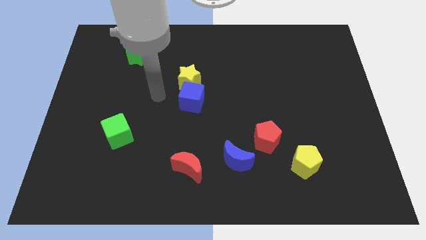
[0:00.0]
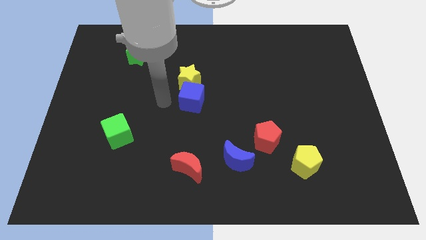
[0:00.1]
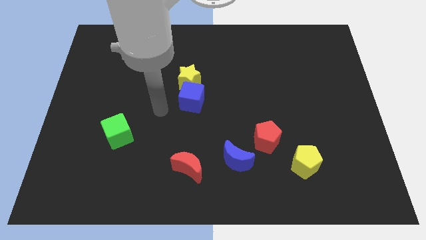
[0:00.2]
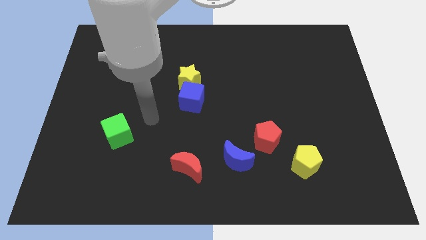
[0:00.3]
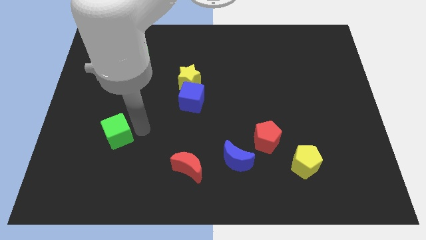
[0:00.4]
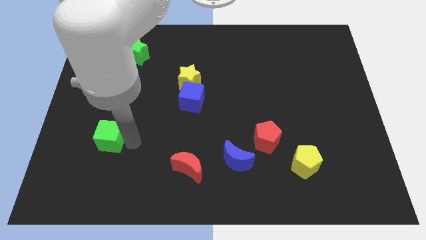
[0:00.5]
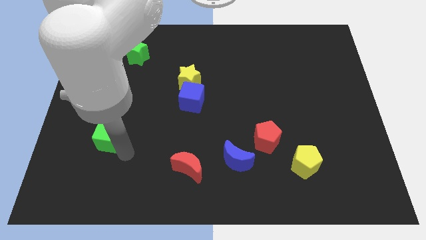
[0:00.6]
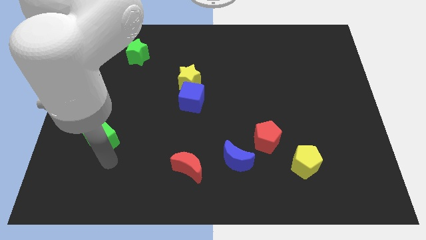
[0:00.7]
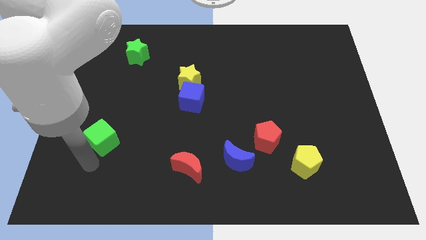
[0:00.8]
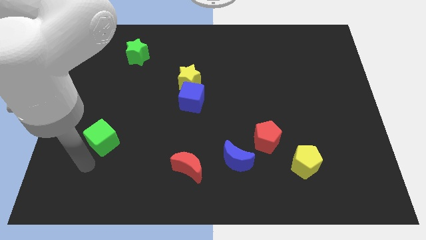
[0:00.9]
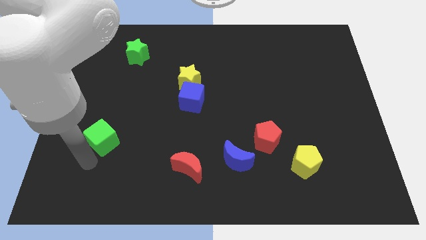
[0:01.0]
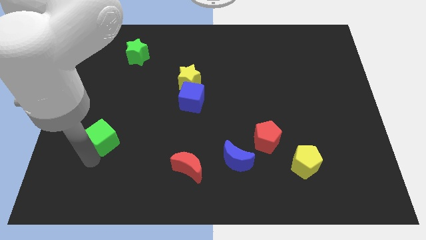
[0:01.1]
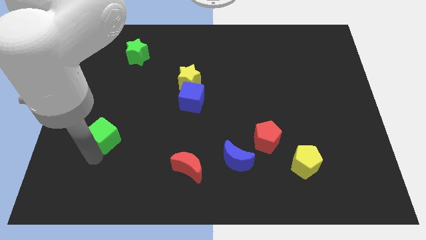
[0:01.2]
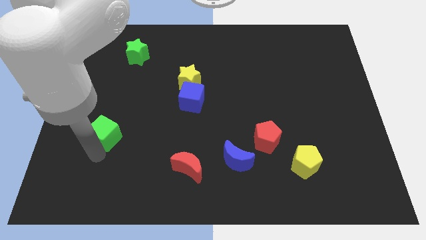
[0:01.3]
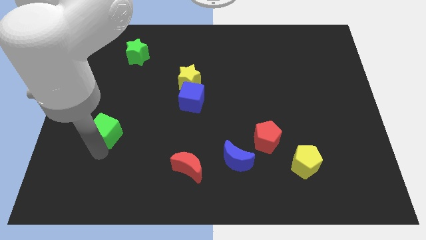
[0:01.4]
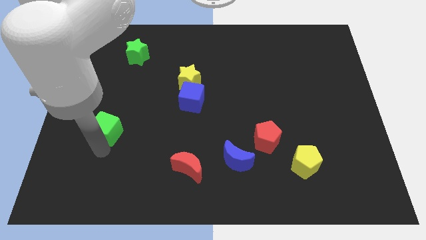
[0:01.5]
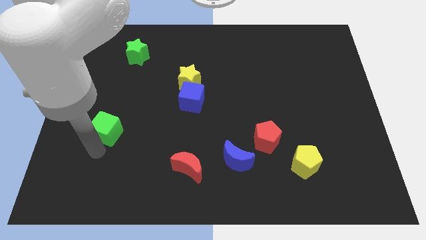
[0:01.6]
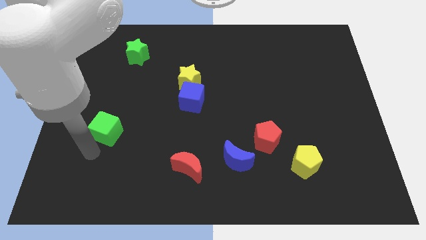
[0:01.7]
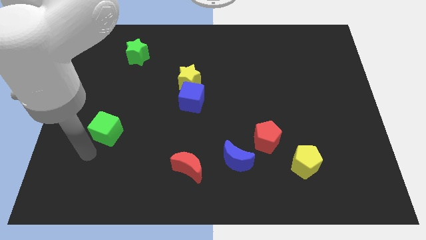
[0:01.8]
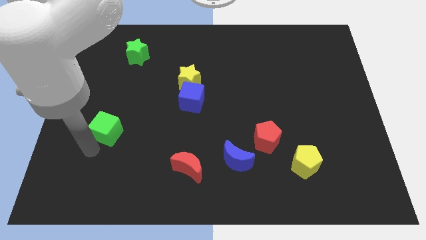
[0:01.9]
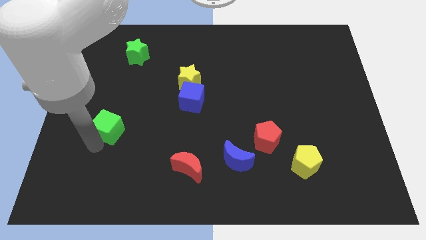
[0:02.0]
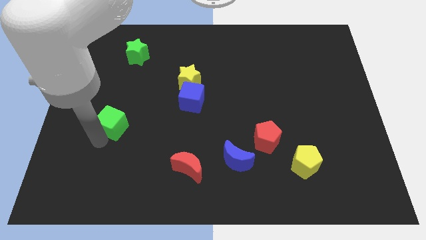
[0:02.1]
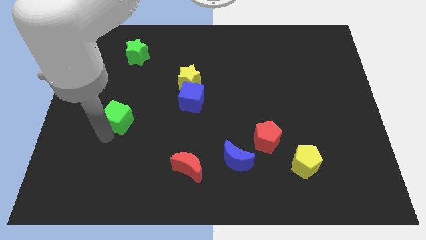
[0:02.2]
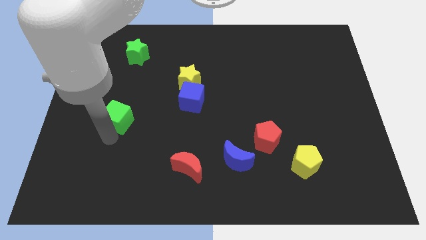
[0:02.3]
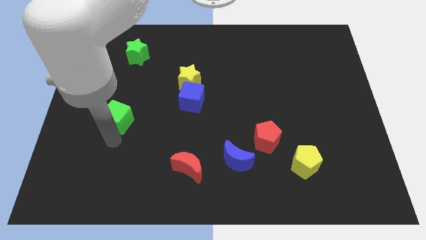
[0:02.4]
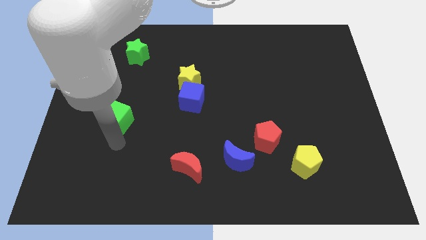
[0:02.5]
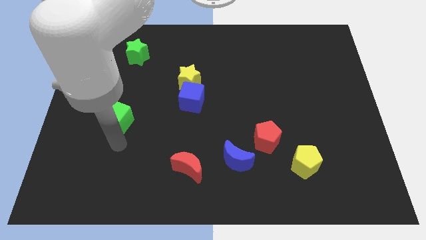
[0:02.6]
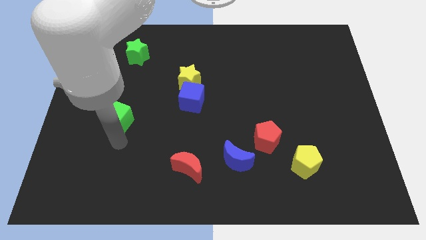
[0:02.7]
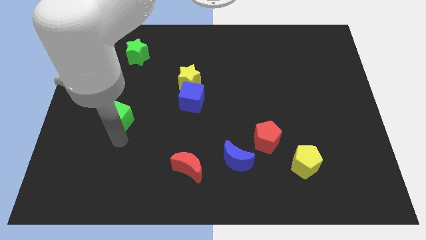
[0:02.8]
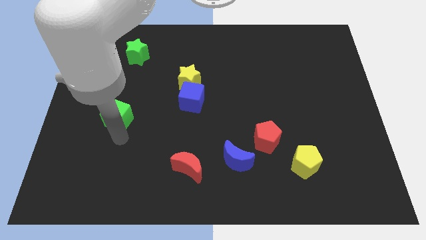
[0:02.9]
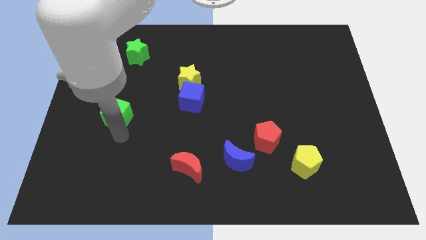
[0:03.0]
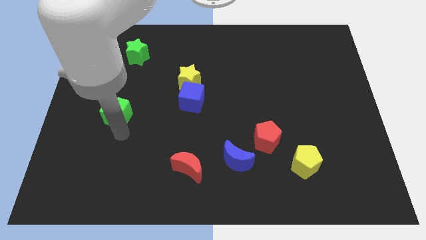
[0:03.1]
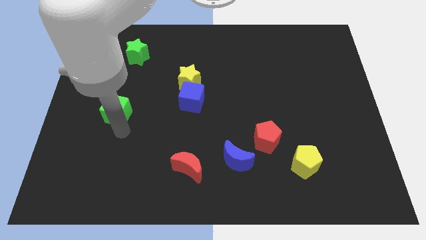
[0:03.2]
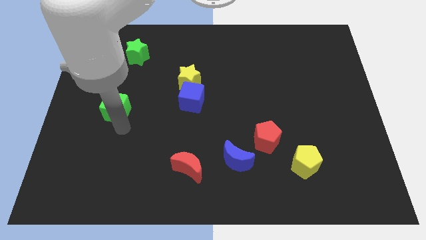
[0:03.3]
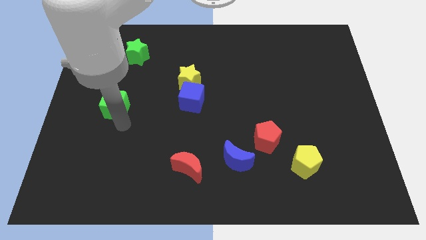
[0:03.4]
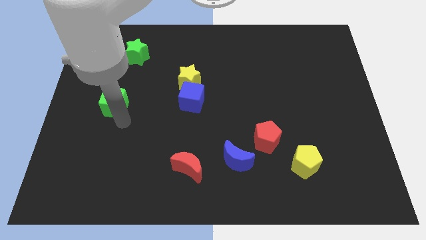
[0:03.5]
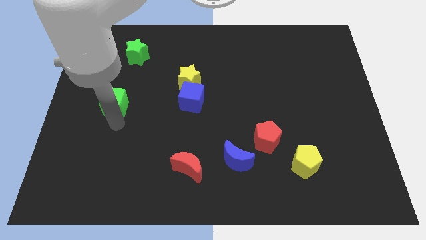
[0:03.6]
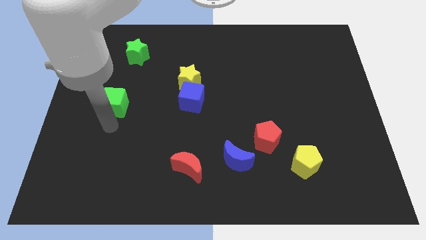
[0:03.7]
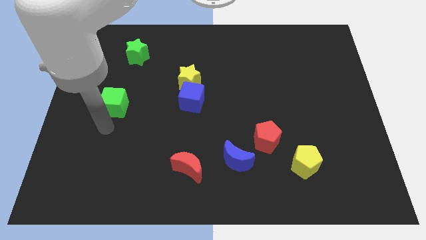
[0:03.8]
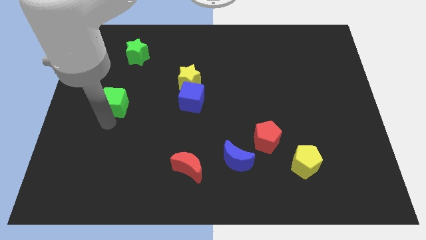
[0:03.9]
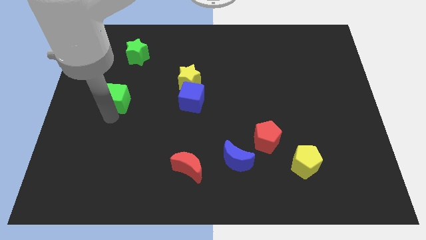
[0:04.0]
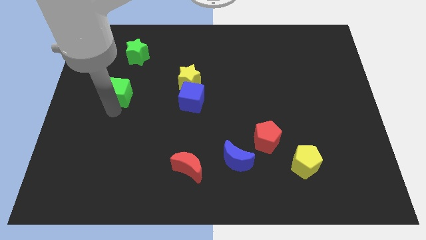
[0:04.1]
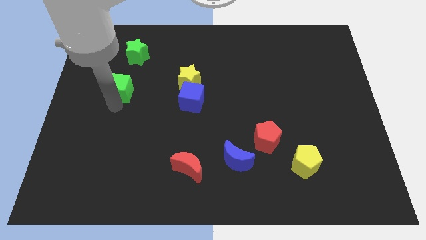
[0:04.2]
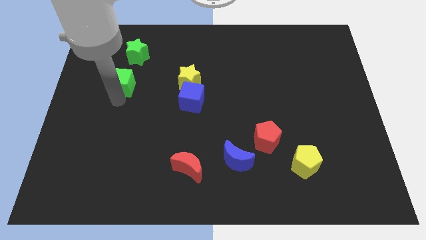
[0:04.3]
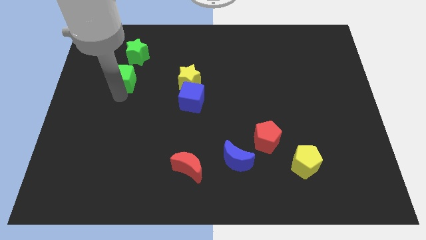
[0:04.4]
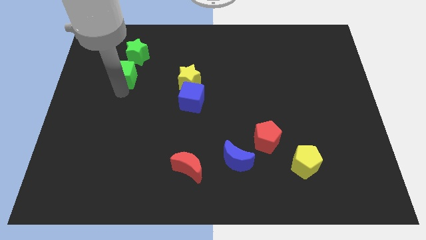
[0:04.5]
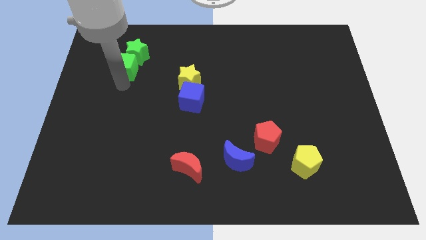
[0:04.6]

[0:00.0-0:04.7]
put the green cube close to the green star

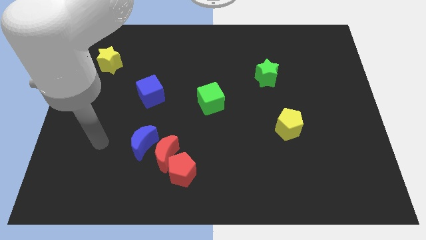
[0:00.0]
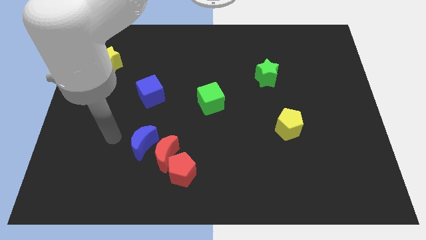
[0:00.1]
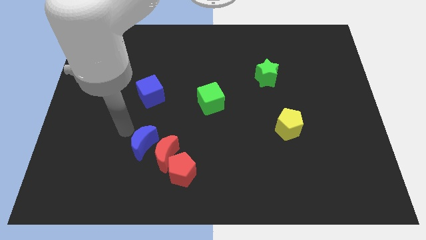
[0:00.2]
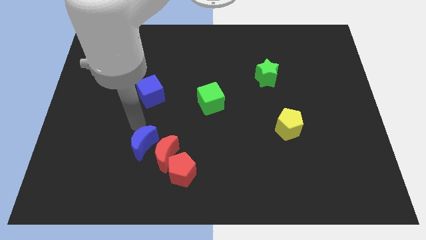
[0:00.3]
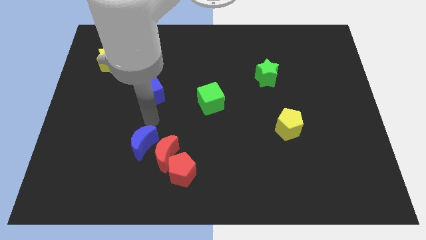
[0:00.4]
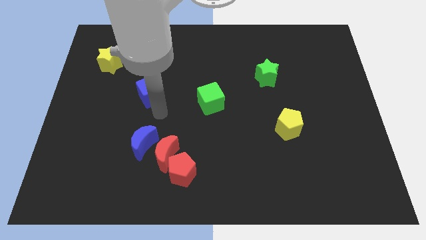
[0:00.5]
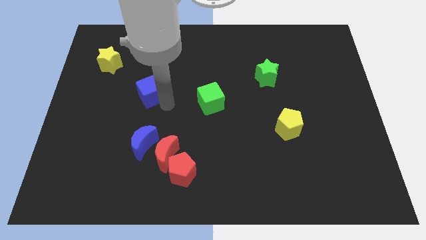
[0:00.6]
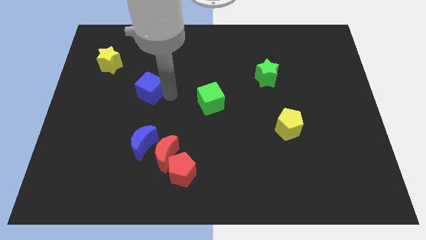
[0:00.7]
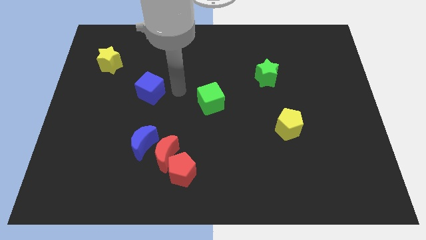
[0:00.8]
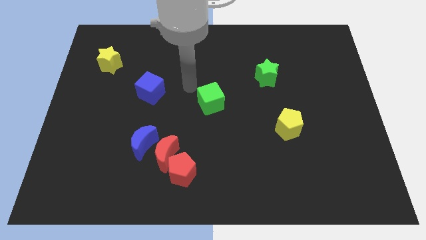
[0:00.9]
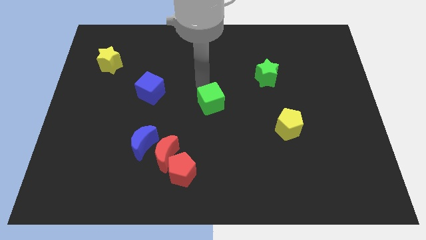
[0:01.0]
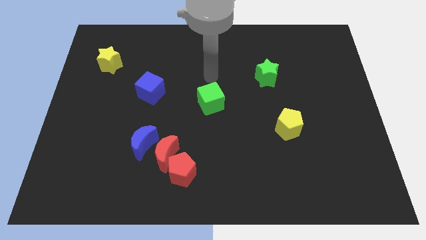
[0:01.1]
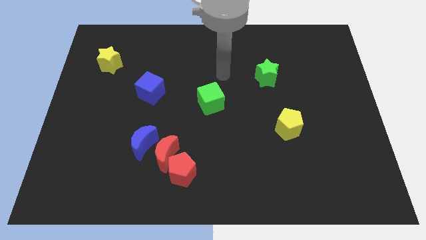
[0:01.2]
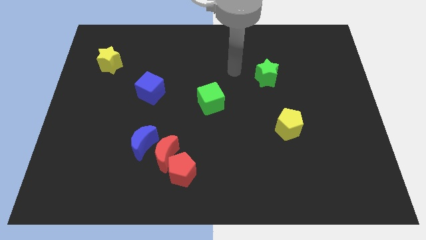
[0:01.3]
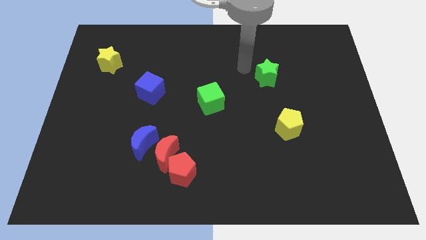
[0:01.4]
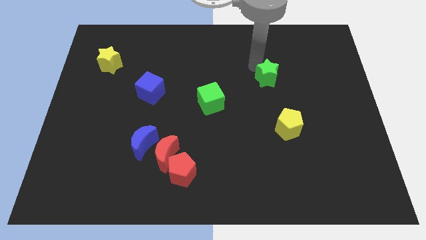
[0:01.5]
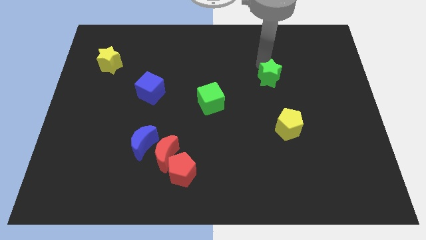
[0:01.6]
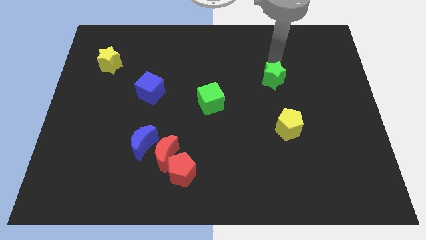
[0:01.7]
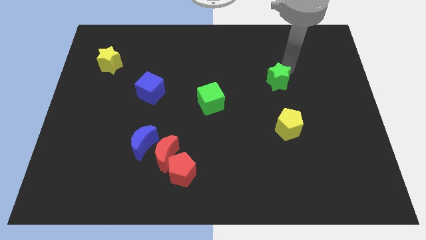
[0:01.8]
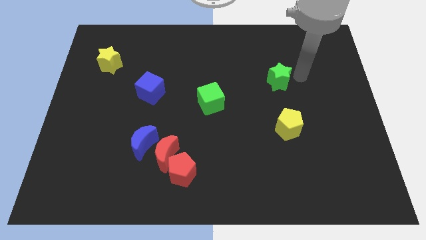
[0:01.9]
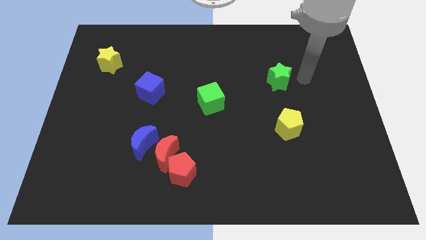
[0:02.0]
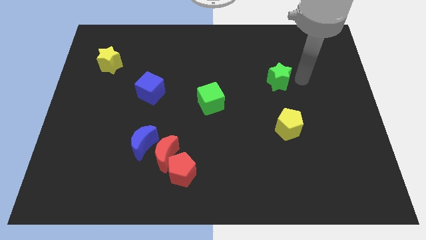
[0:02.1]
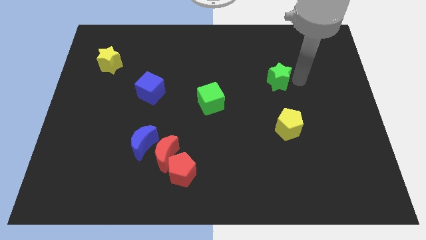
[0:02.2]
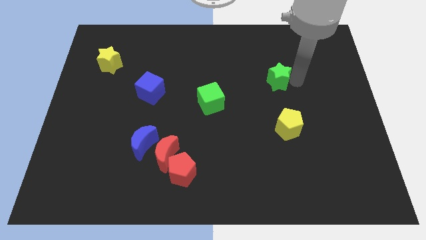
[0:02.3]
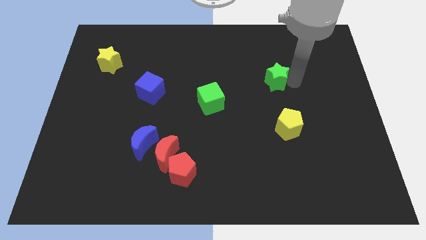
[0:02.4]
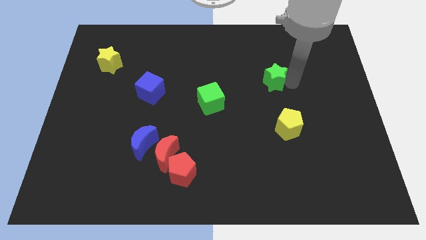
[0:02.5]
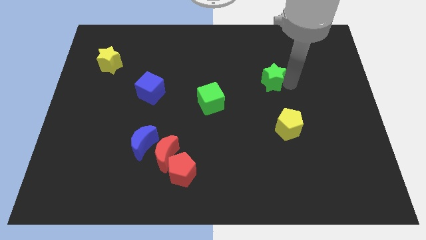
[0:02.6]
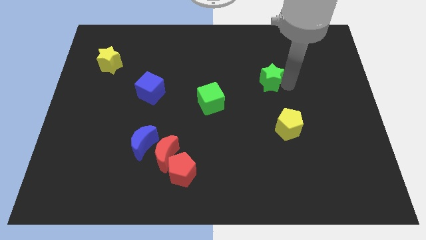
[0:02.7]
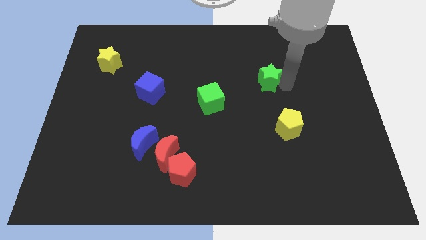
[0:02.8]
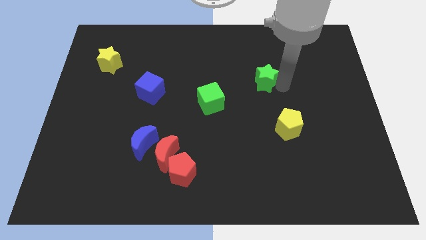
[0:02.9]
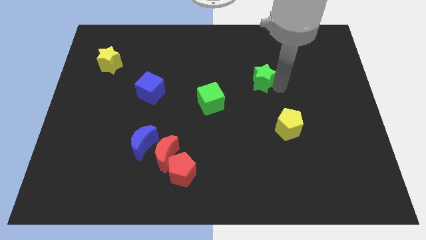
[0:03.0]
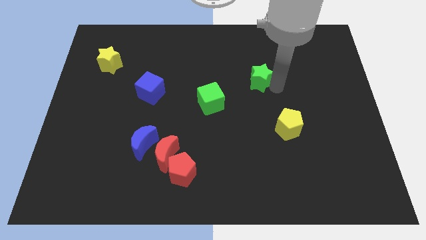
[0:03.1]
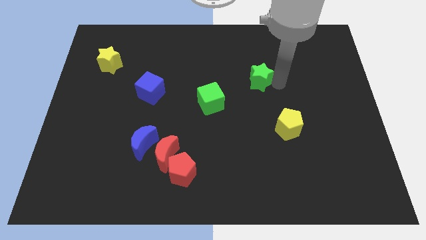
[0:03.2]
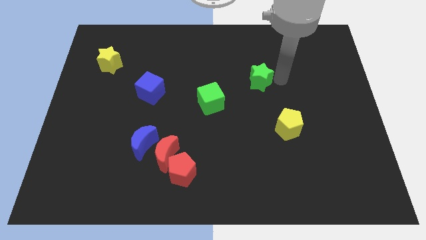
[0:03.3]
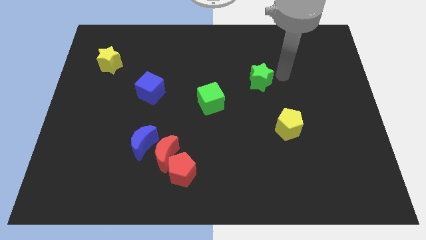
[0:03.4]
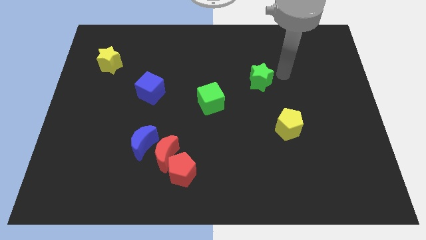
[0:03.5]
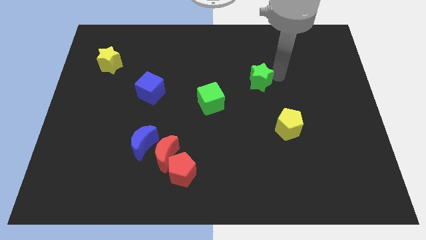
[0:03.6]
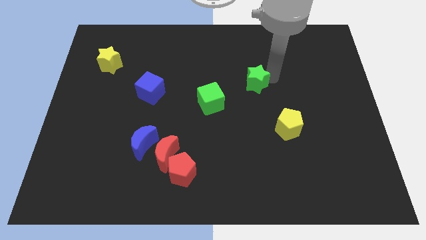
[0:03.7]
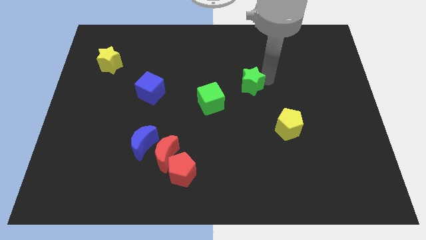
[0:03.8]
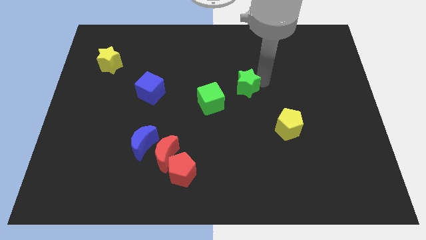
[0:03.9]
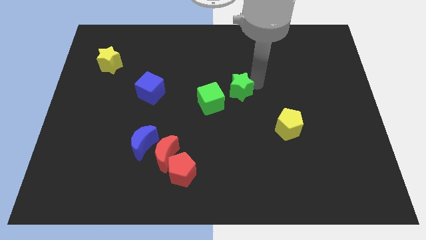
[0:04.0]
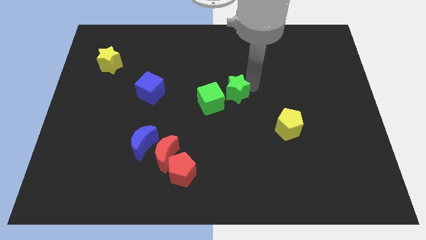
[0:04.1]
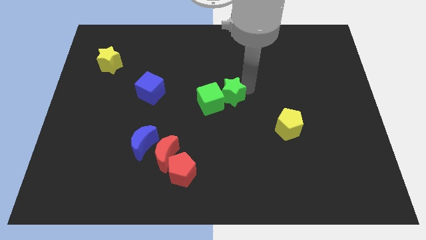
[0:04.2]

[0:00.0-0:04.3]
put the green star towards the green cube
